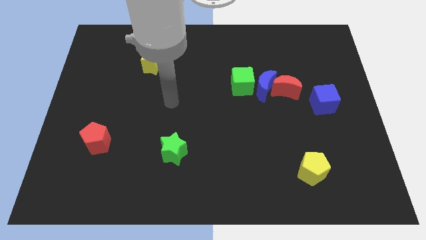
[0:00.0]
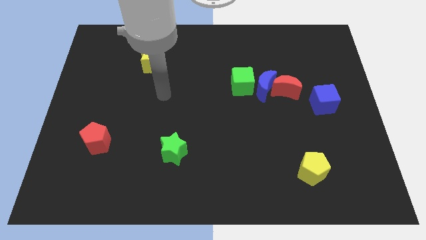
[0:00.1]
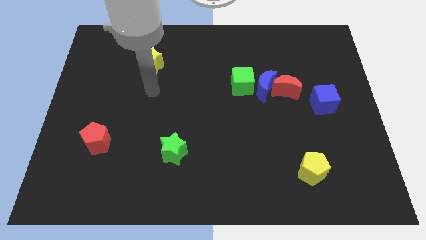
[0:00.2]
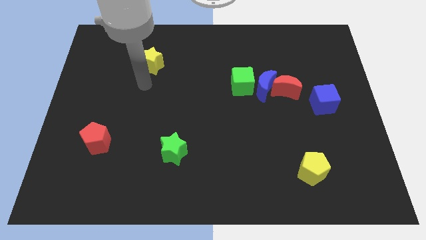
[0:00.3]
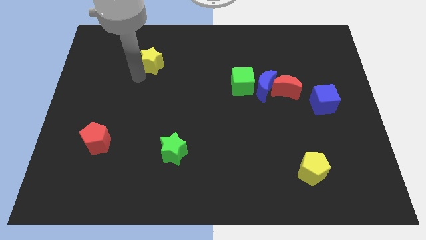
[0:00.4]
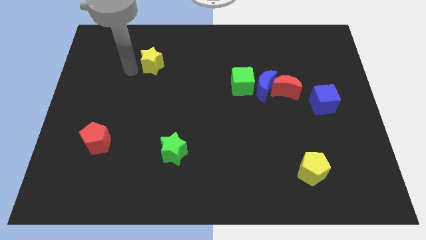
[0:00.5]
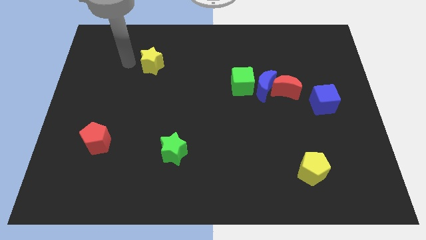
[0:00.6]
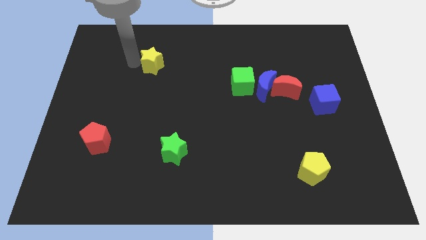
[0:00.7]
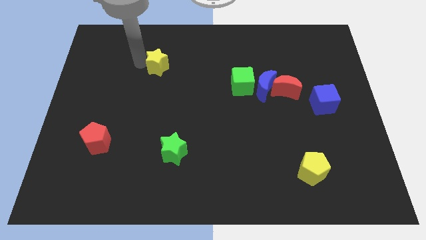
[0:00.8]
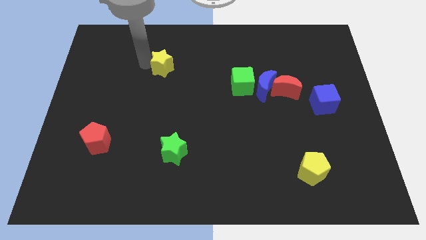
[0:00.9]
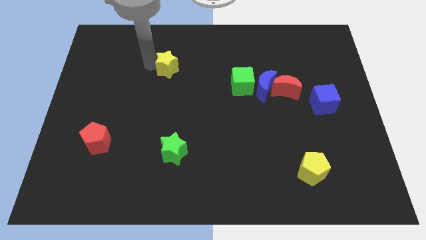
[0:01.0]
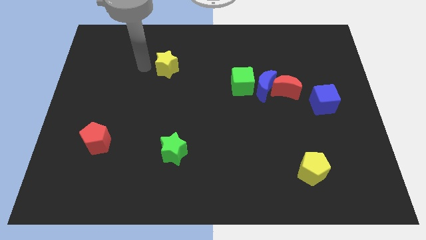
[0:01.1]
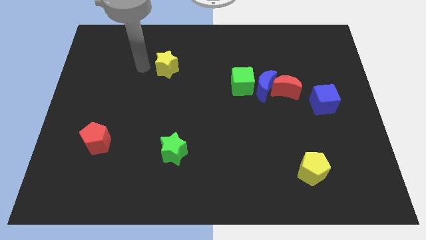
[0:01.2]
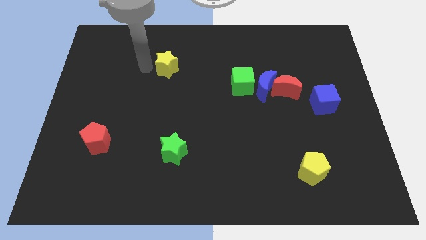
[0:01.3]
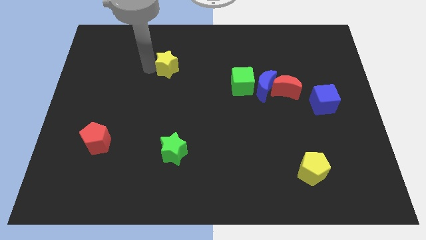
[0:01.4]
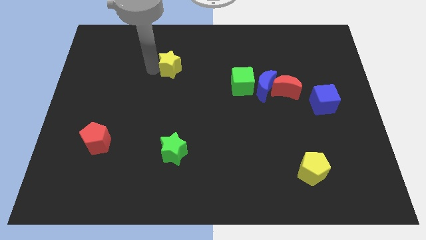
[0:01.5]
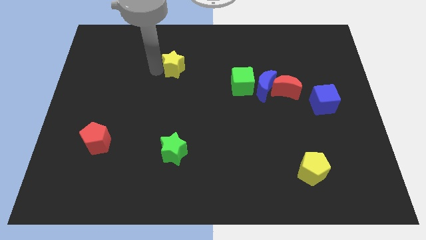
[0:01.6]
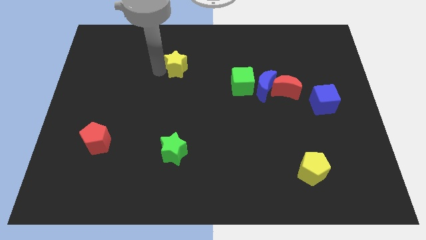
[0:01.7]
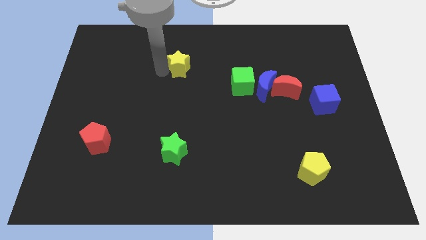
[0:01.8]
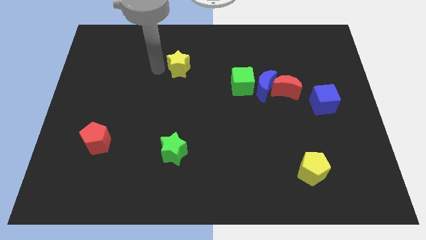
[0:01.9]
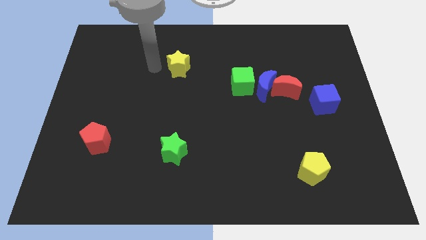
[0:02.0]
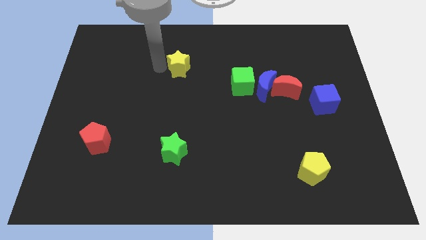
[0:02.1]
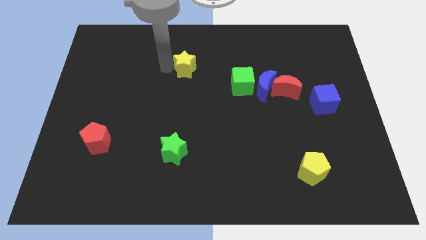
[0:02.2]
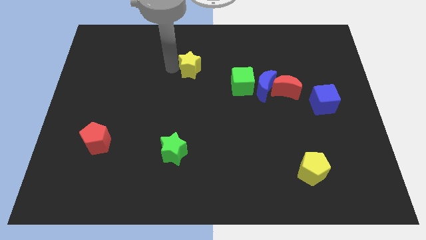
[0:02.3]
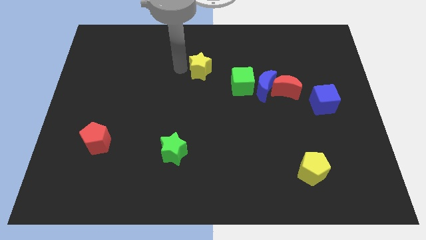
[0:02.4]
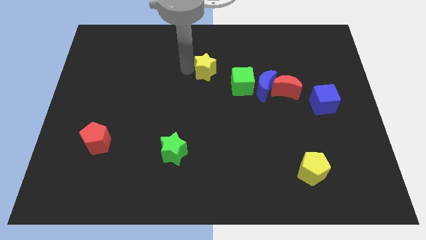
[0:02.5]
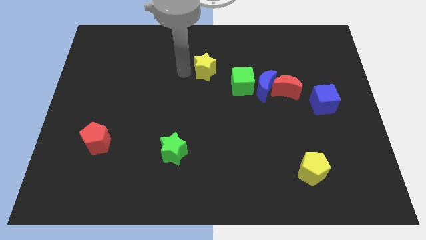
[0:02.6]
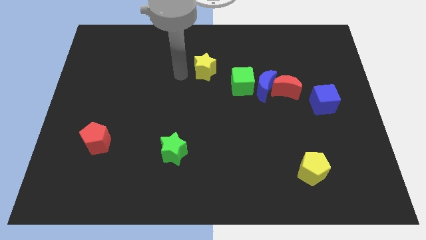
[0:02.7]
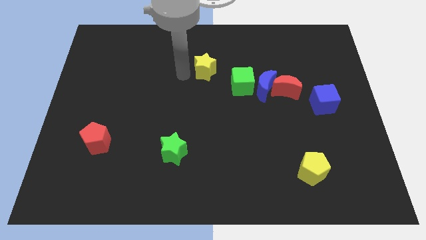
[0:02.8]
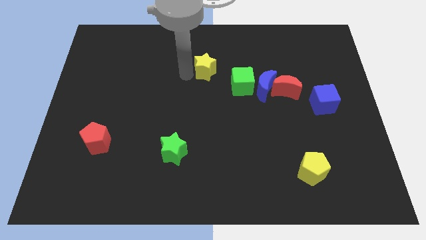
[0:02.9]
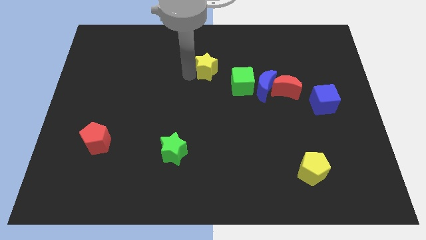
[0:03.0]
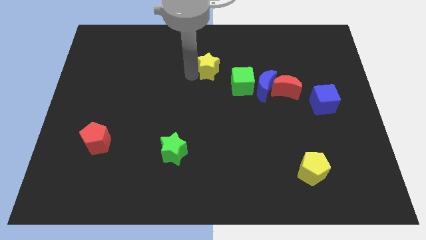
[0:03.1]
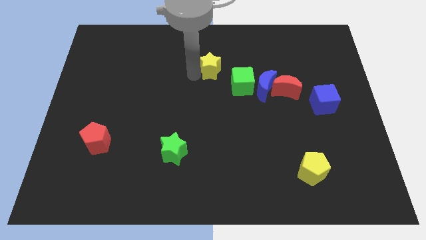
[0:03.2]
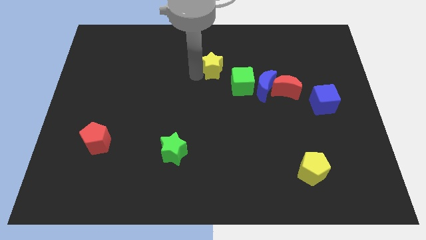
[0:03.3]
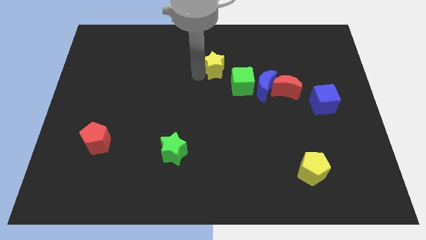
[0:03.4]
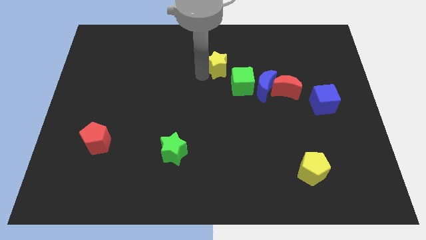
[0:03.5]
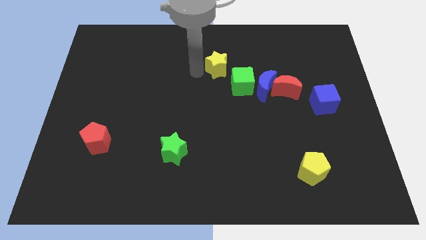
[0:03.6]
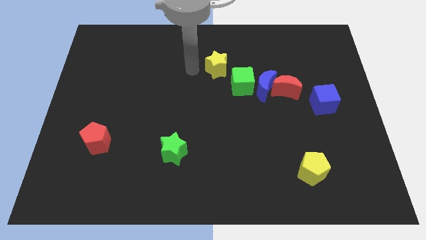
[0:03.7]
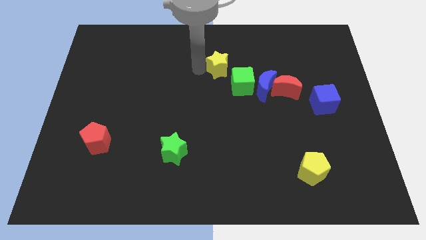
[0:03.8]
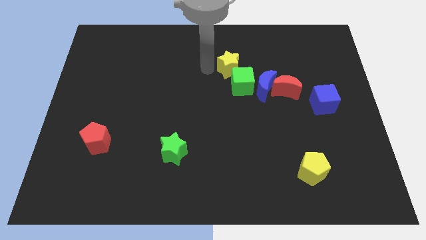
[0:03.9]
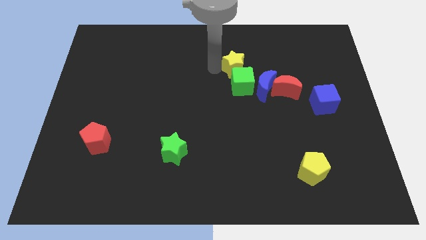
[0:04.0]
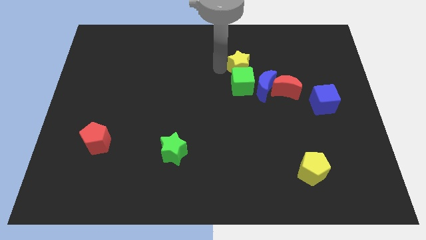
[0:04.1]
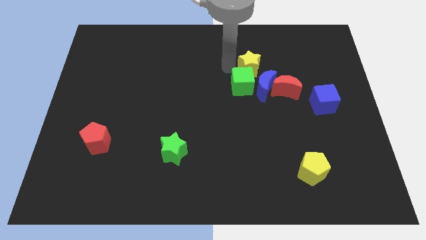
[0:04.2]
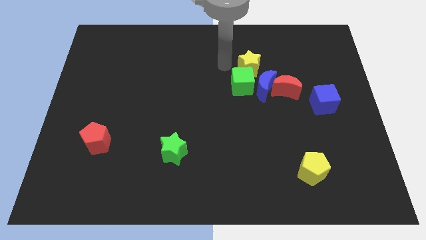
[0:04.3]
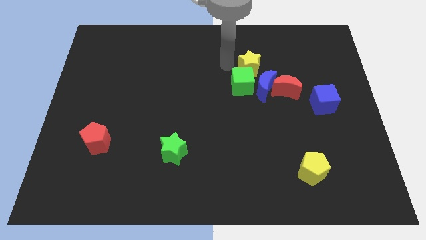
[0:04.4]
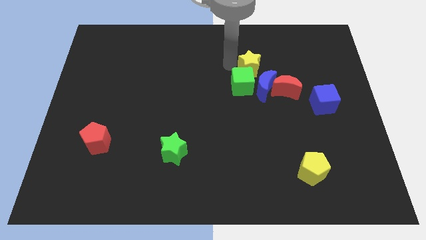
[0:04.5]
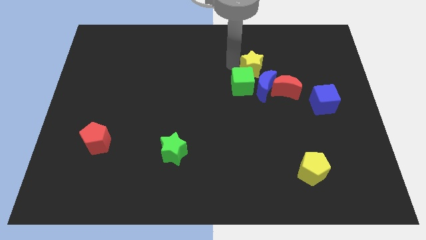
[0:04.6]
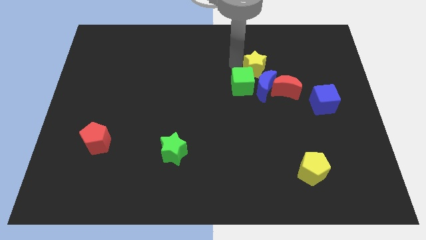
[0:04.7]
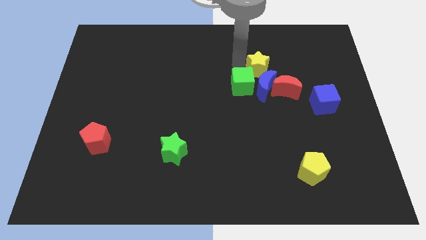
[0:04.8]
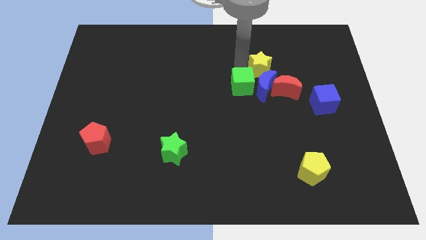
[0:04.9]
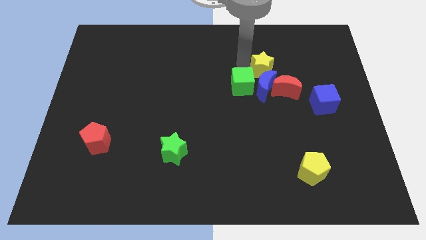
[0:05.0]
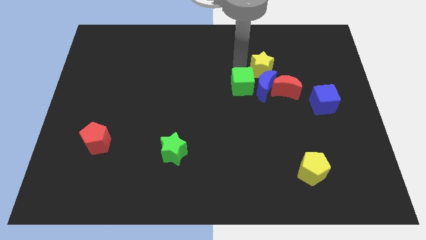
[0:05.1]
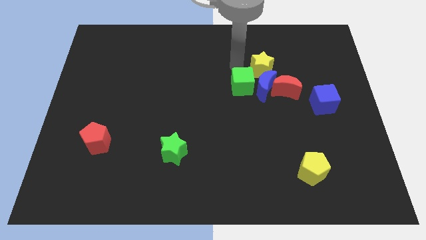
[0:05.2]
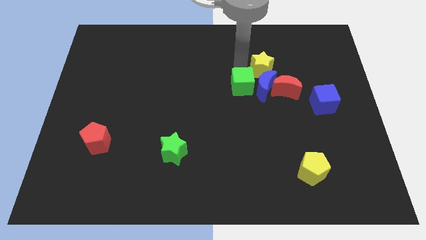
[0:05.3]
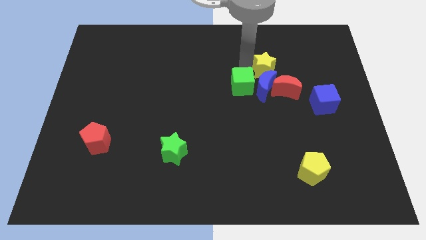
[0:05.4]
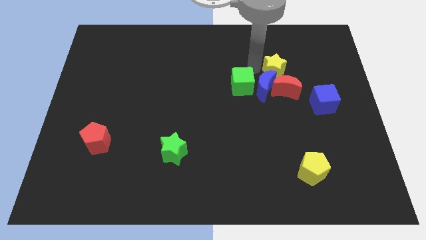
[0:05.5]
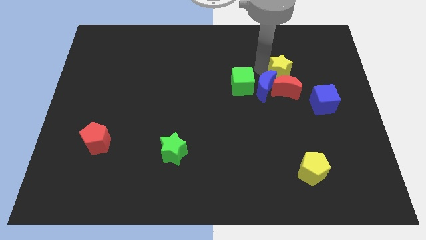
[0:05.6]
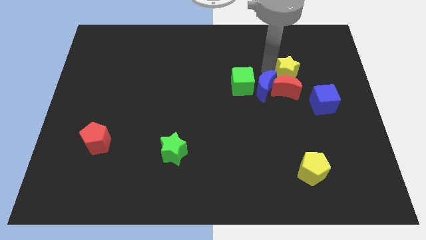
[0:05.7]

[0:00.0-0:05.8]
push the yellow star to the top right side of the red moon

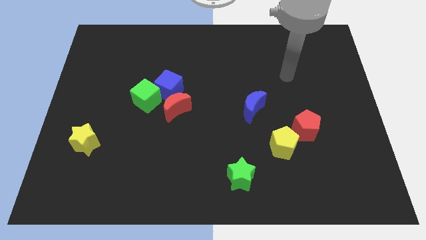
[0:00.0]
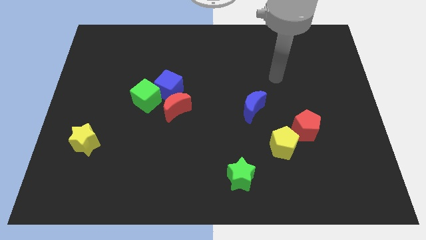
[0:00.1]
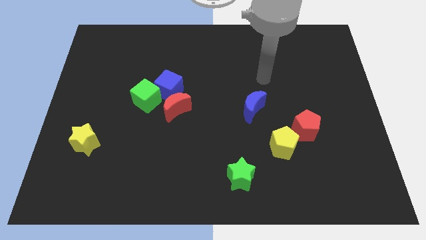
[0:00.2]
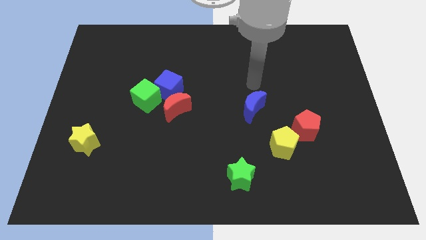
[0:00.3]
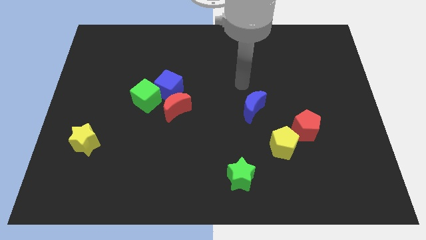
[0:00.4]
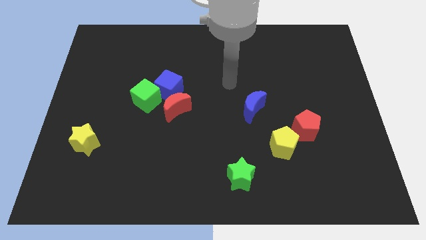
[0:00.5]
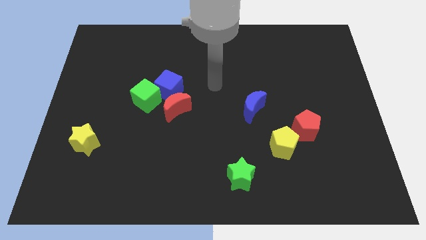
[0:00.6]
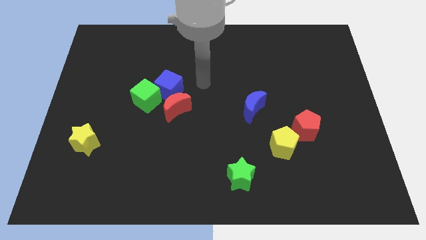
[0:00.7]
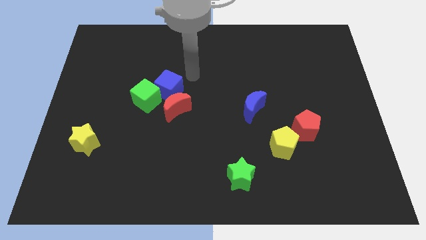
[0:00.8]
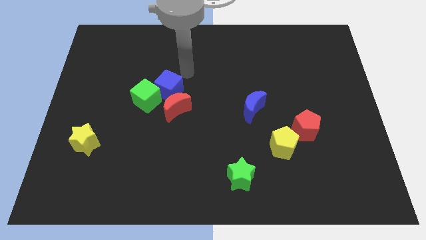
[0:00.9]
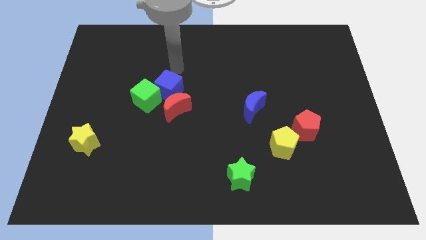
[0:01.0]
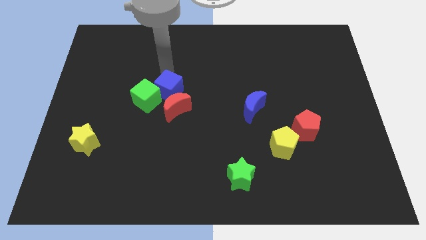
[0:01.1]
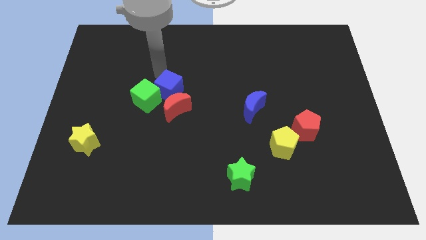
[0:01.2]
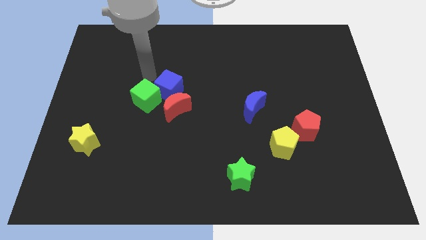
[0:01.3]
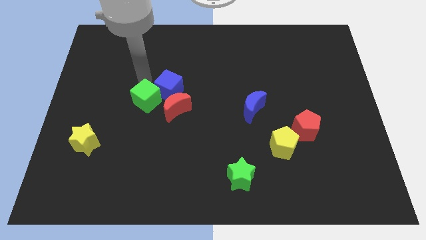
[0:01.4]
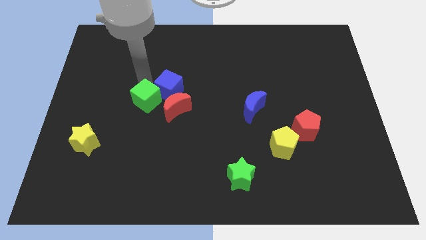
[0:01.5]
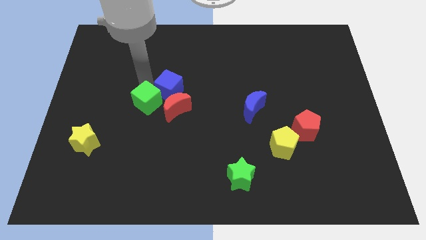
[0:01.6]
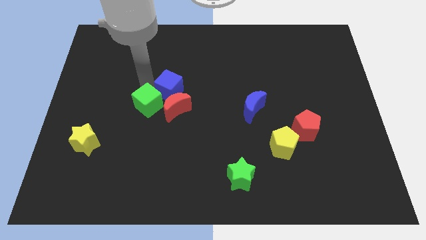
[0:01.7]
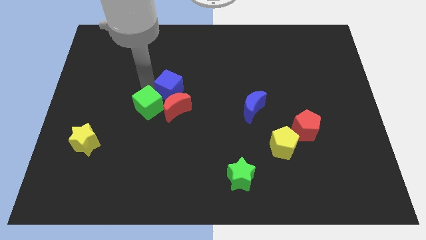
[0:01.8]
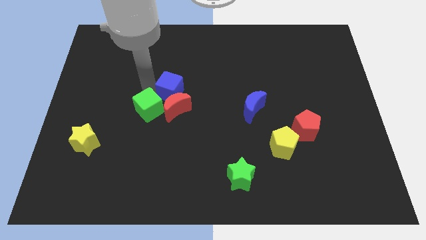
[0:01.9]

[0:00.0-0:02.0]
put the green cube to the bottom left side of the red moon
